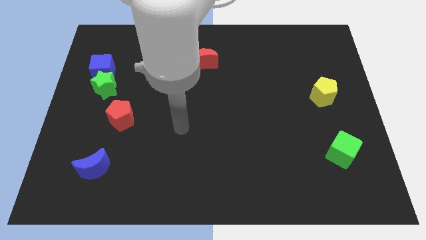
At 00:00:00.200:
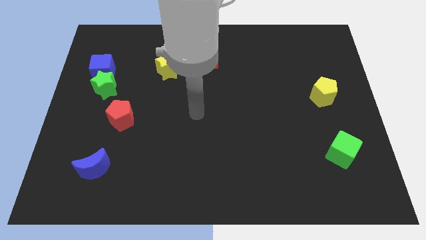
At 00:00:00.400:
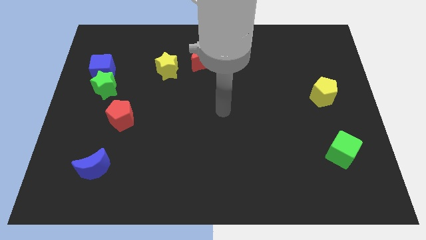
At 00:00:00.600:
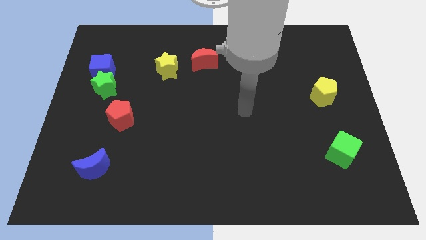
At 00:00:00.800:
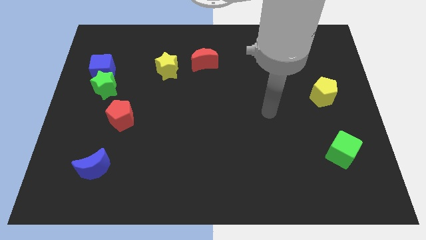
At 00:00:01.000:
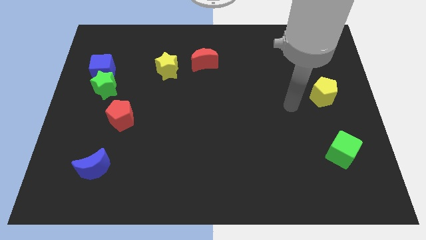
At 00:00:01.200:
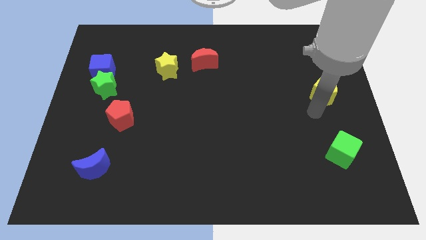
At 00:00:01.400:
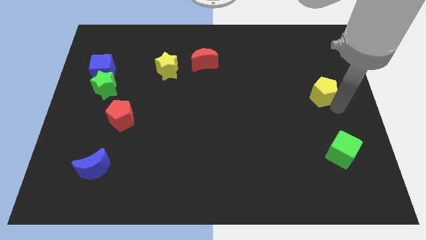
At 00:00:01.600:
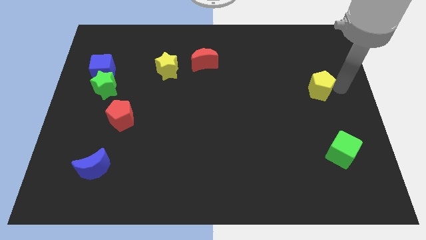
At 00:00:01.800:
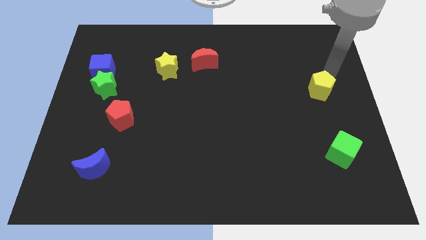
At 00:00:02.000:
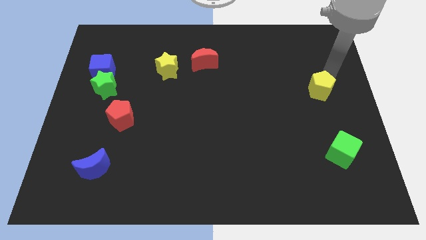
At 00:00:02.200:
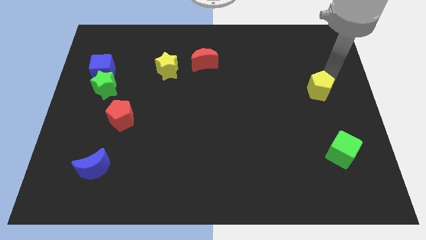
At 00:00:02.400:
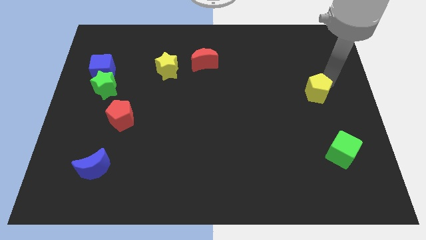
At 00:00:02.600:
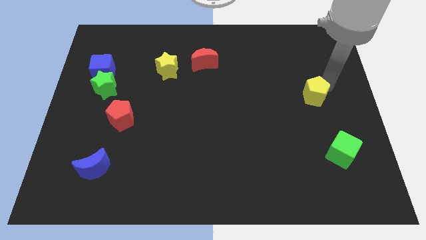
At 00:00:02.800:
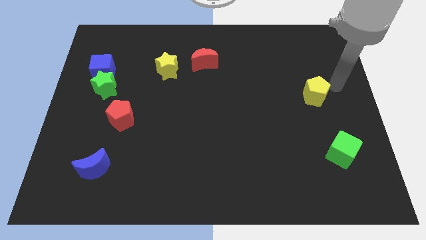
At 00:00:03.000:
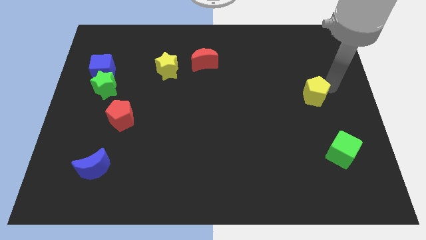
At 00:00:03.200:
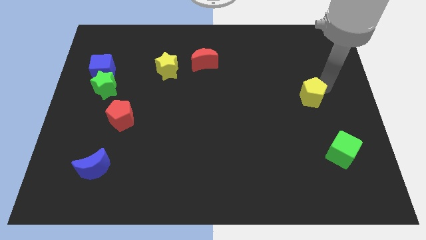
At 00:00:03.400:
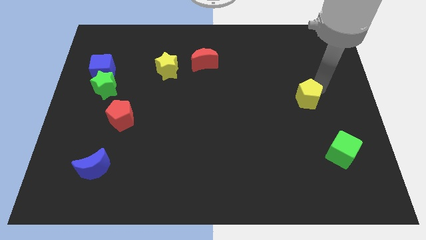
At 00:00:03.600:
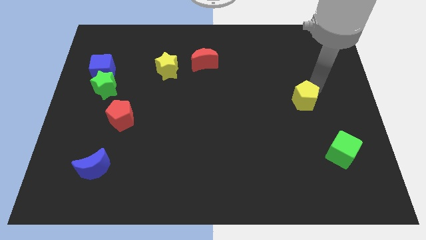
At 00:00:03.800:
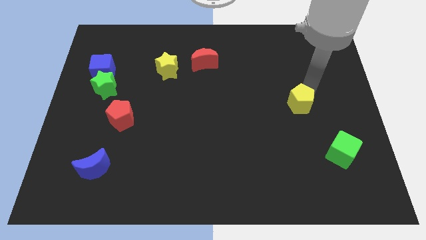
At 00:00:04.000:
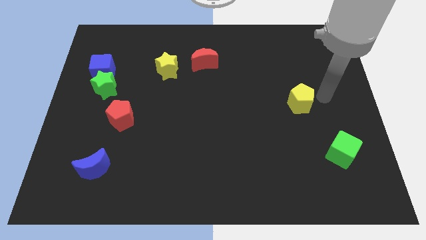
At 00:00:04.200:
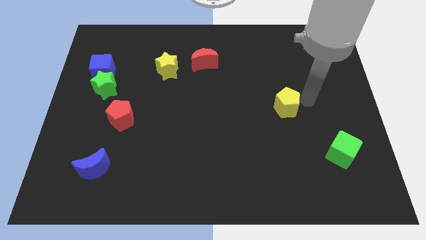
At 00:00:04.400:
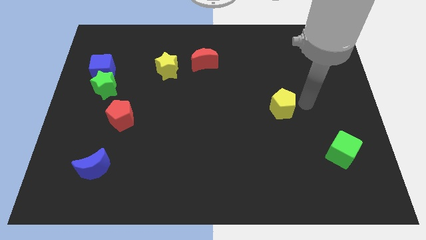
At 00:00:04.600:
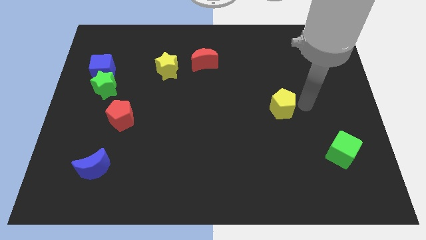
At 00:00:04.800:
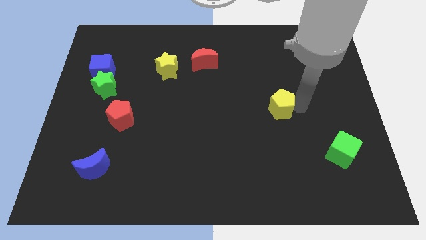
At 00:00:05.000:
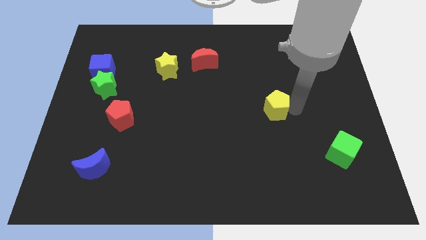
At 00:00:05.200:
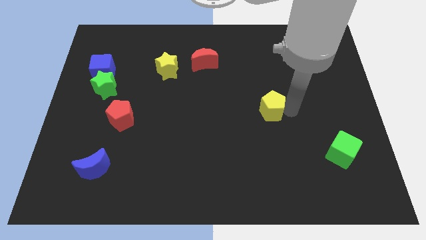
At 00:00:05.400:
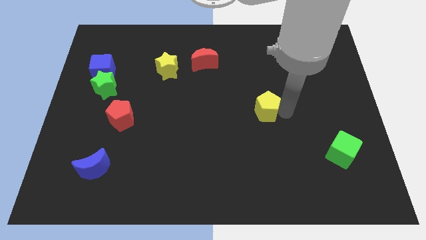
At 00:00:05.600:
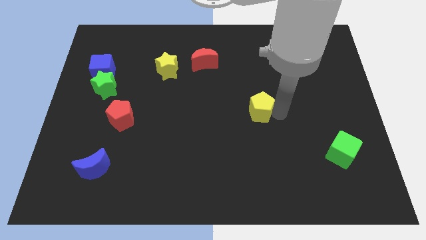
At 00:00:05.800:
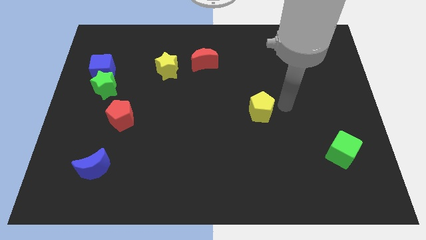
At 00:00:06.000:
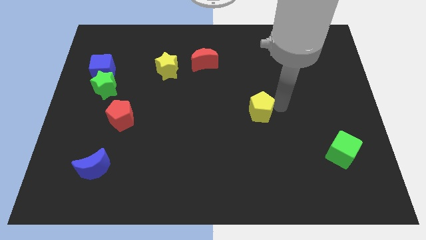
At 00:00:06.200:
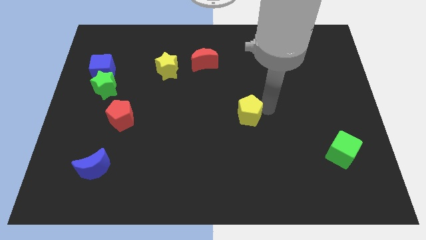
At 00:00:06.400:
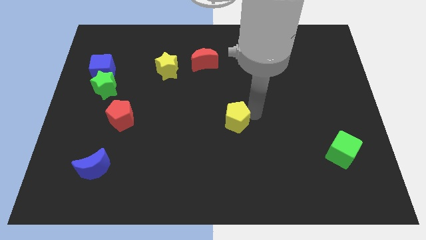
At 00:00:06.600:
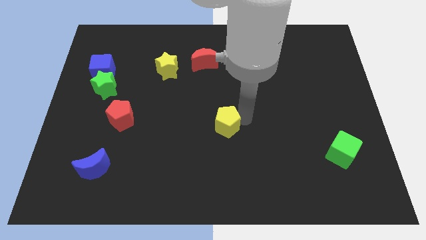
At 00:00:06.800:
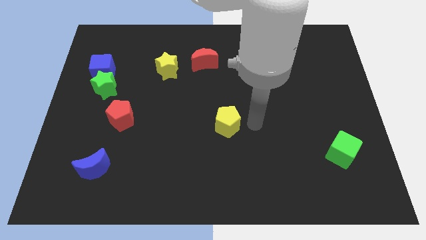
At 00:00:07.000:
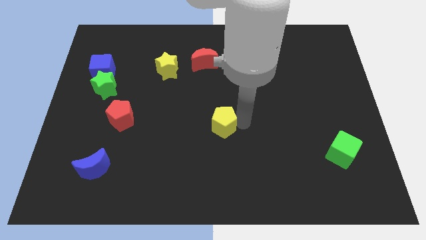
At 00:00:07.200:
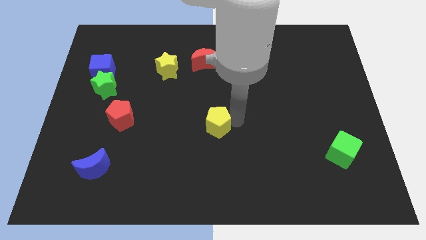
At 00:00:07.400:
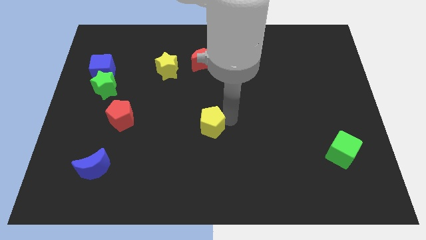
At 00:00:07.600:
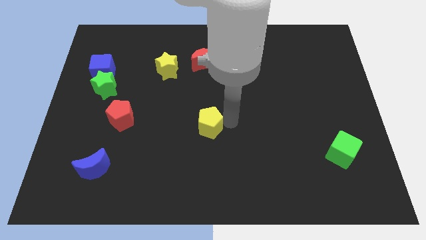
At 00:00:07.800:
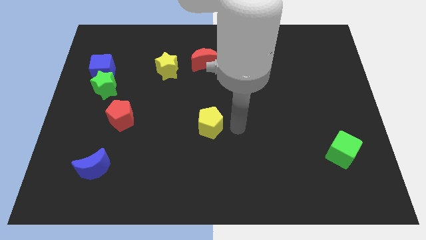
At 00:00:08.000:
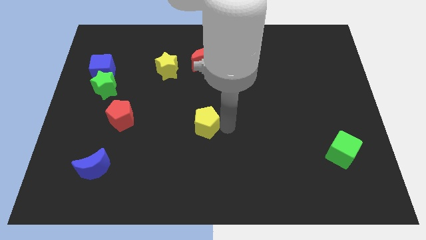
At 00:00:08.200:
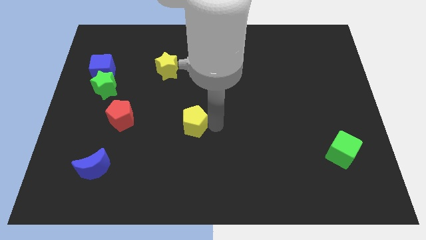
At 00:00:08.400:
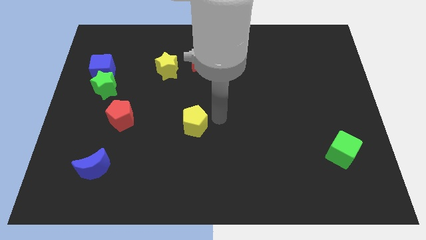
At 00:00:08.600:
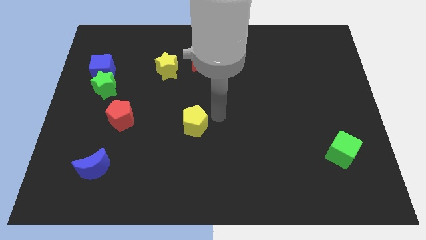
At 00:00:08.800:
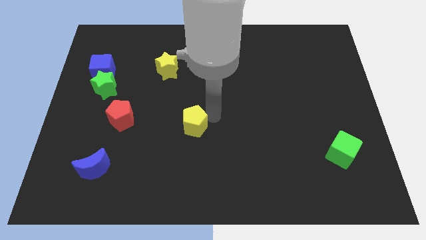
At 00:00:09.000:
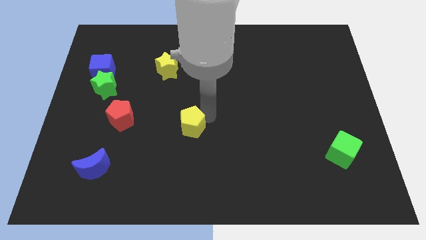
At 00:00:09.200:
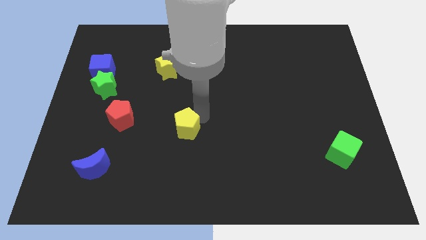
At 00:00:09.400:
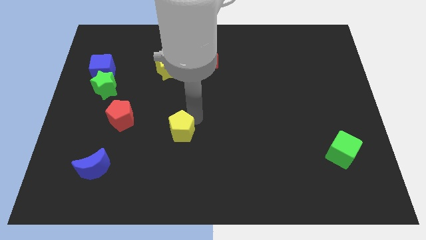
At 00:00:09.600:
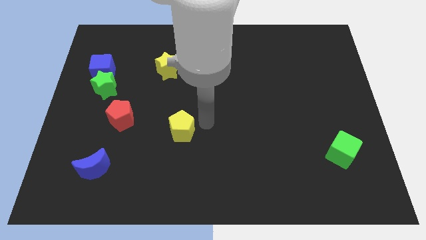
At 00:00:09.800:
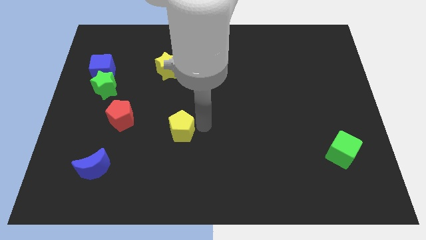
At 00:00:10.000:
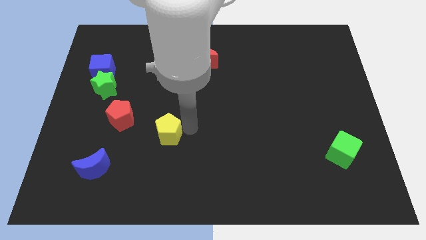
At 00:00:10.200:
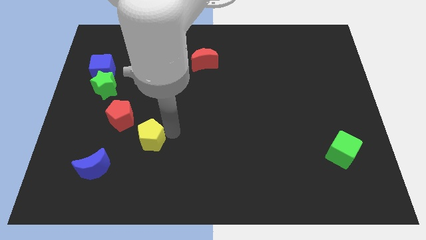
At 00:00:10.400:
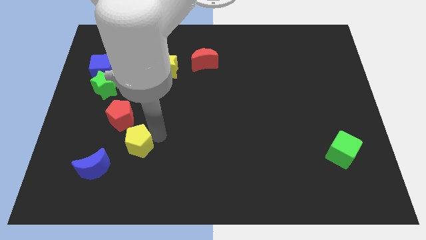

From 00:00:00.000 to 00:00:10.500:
put the yellow pentagon below the red pentagon

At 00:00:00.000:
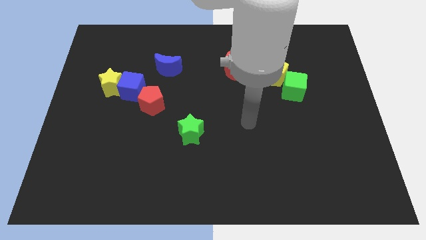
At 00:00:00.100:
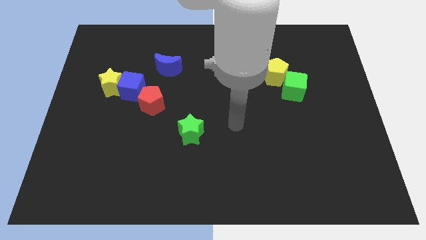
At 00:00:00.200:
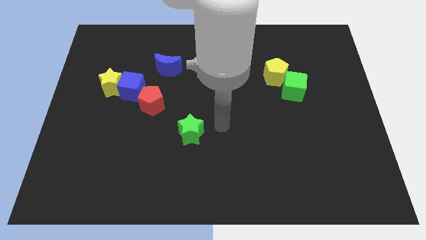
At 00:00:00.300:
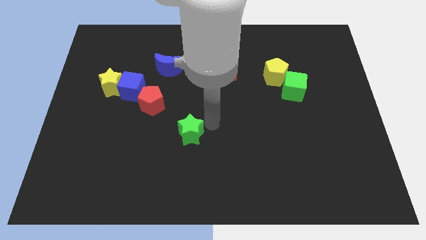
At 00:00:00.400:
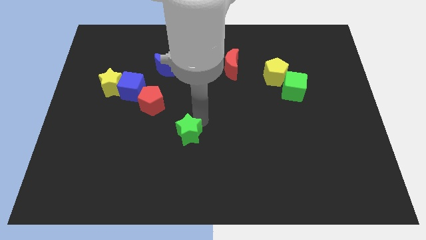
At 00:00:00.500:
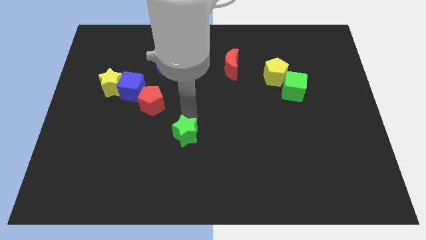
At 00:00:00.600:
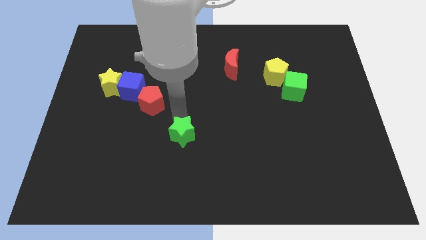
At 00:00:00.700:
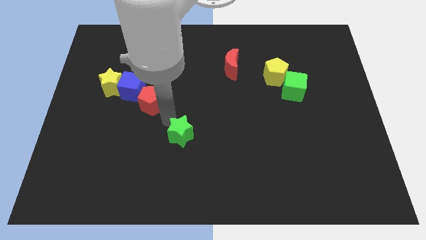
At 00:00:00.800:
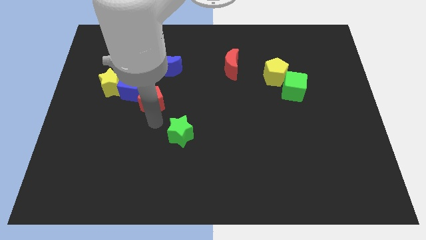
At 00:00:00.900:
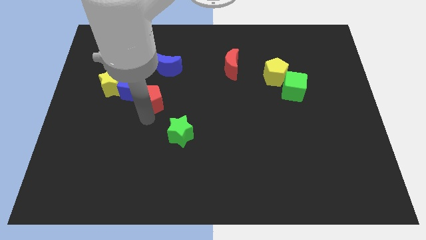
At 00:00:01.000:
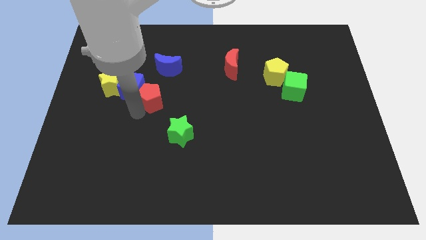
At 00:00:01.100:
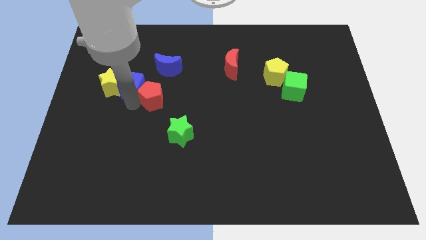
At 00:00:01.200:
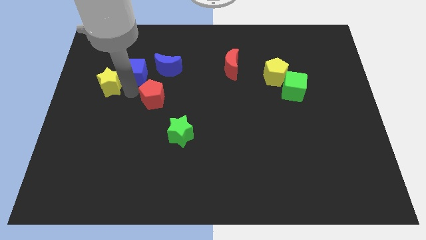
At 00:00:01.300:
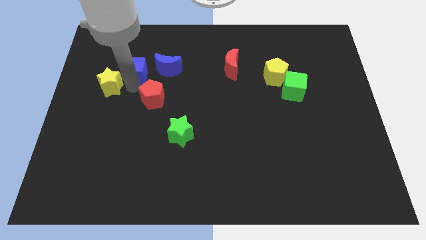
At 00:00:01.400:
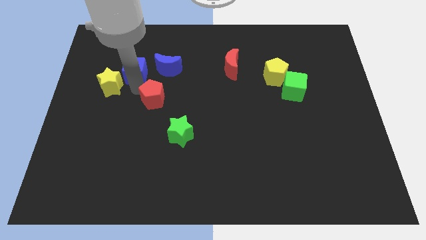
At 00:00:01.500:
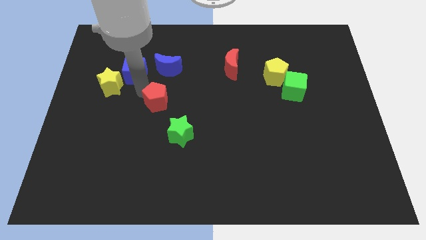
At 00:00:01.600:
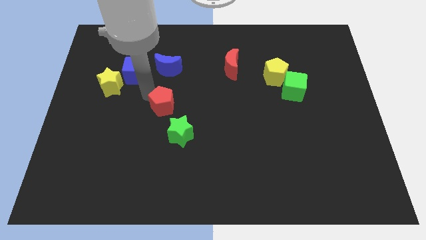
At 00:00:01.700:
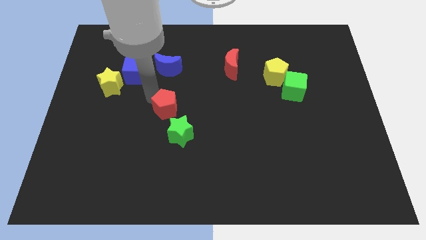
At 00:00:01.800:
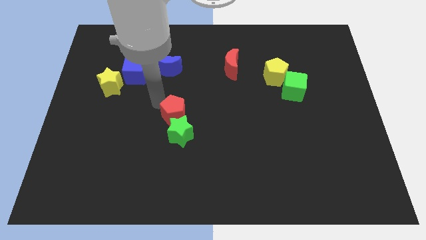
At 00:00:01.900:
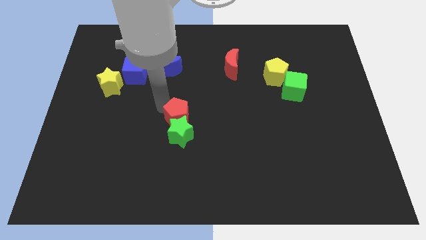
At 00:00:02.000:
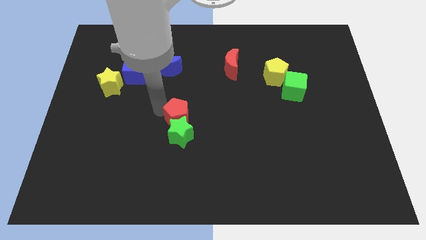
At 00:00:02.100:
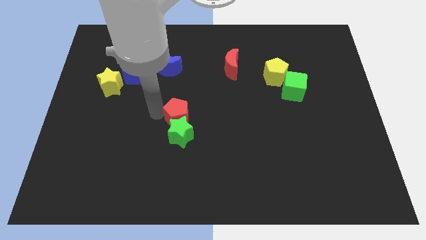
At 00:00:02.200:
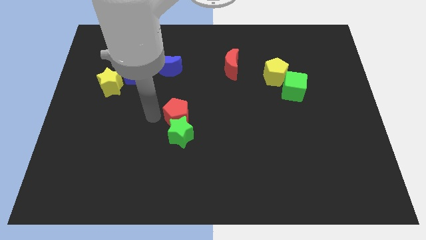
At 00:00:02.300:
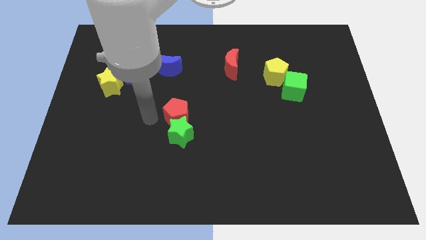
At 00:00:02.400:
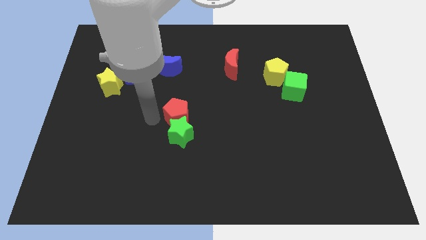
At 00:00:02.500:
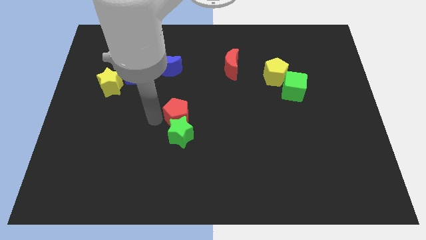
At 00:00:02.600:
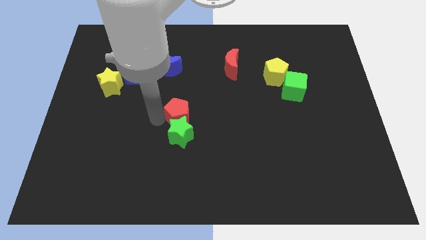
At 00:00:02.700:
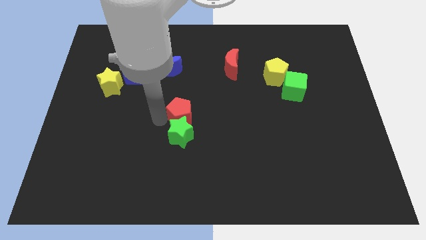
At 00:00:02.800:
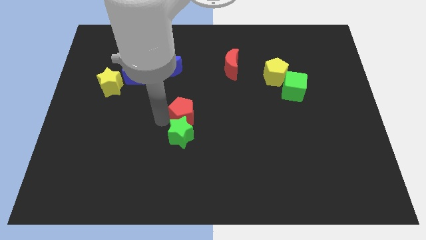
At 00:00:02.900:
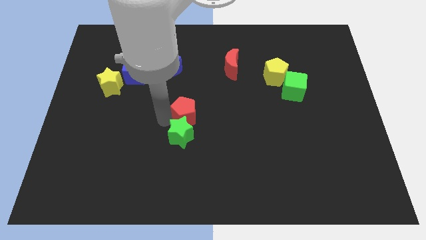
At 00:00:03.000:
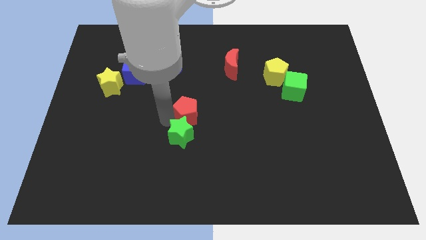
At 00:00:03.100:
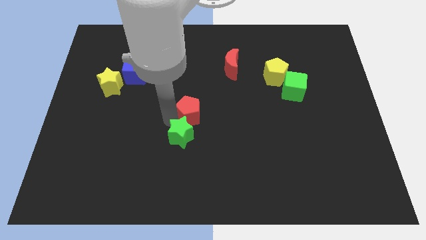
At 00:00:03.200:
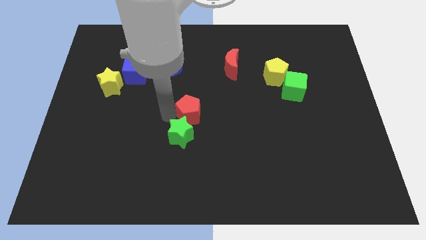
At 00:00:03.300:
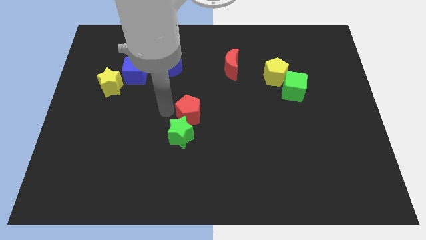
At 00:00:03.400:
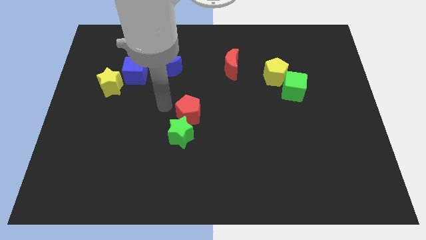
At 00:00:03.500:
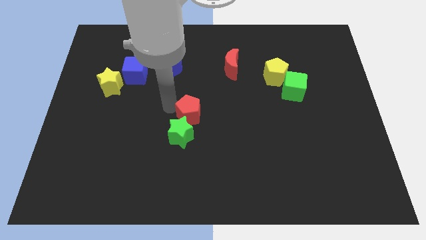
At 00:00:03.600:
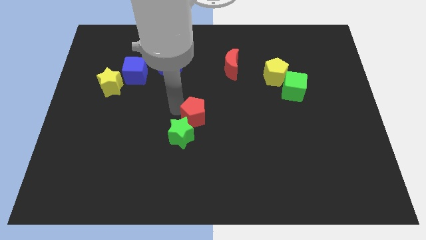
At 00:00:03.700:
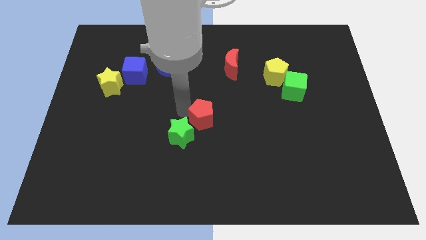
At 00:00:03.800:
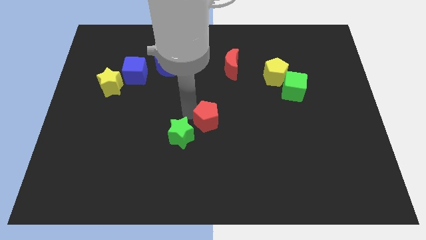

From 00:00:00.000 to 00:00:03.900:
push the red pentagon to the right of the green star
